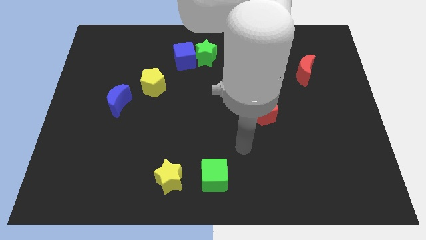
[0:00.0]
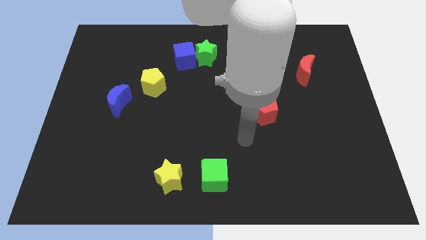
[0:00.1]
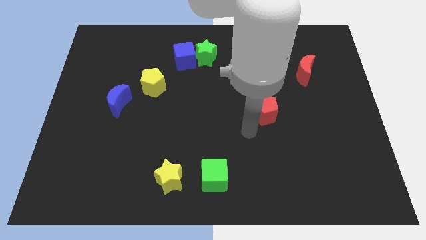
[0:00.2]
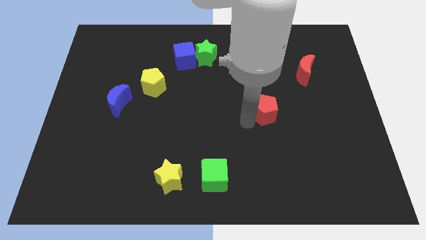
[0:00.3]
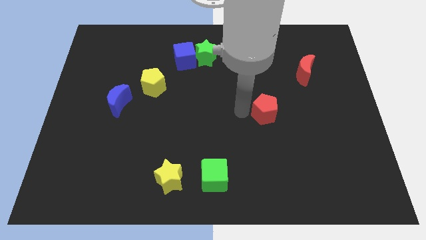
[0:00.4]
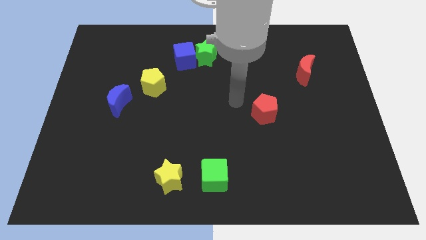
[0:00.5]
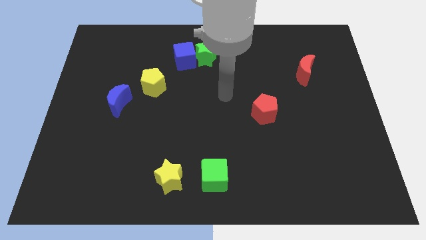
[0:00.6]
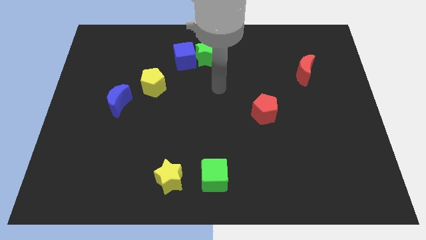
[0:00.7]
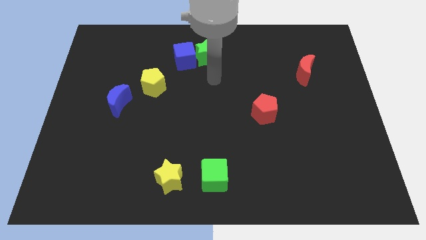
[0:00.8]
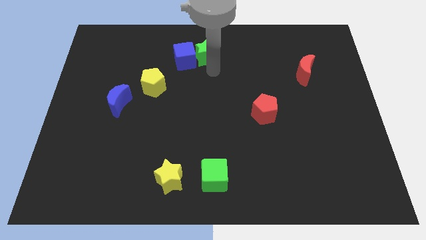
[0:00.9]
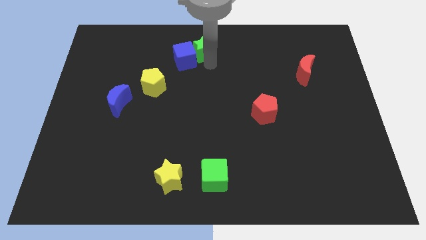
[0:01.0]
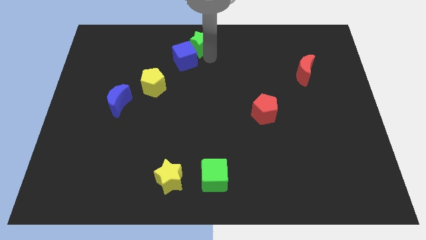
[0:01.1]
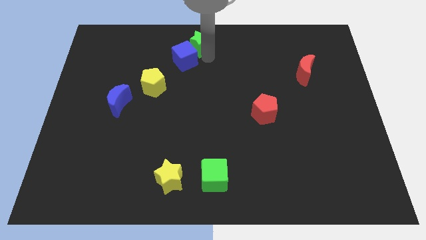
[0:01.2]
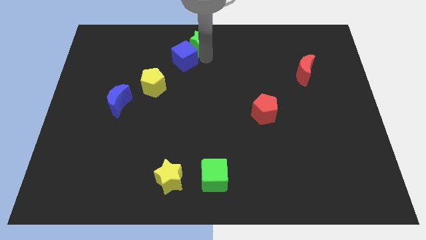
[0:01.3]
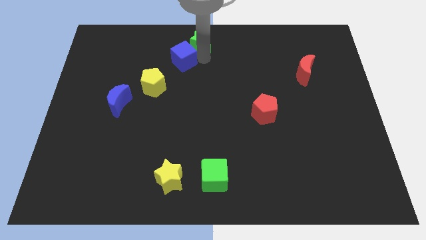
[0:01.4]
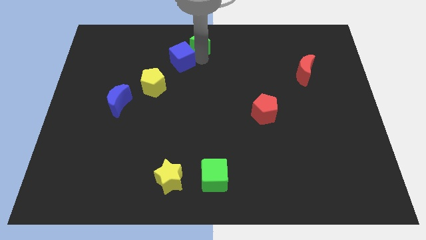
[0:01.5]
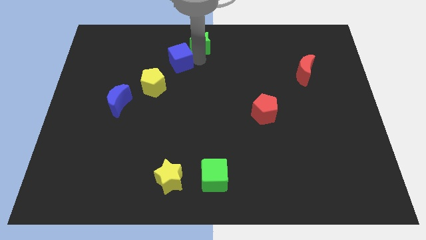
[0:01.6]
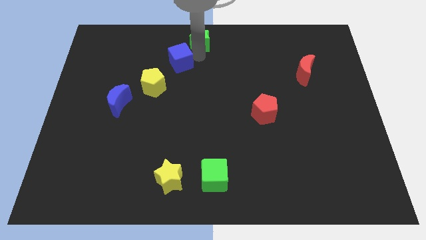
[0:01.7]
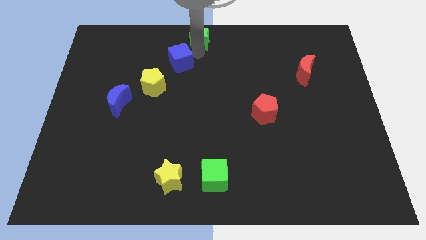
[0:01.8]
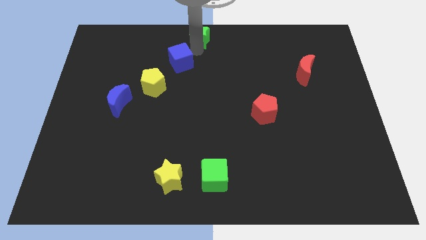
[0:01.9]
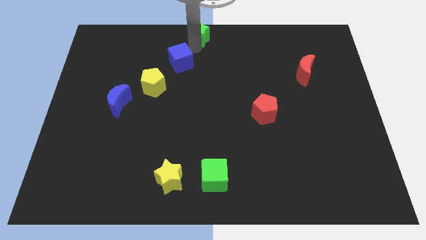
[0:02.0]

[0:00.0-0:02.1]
separate the blue cube from the green star

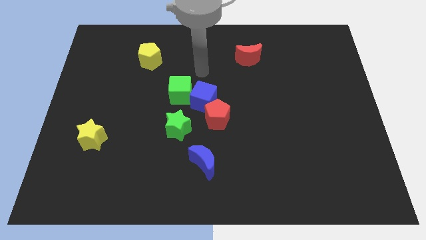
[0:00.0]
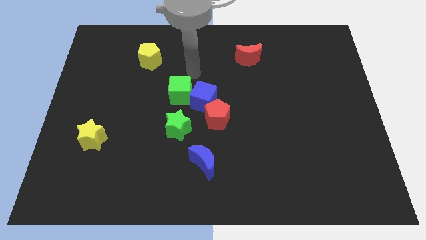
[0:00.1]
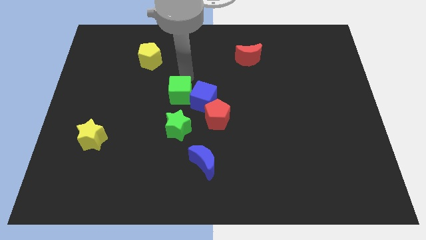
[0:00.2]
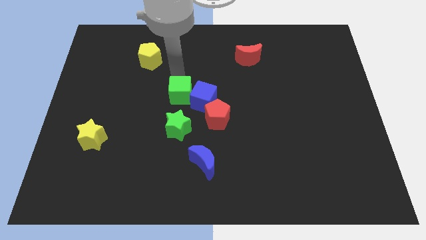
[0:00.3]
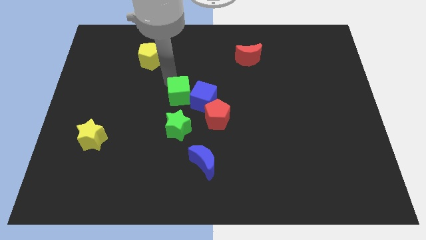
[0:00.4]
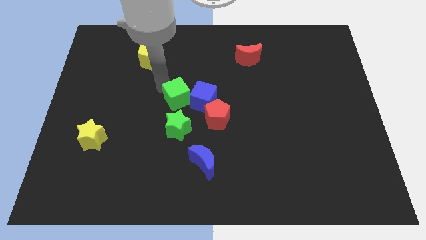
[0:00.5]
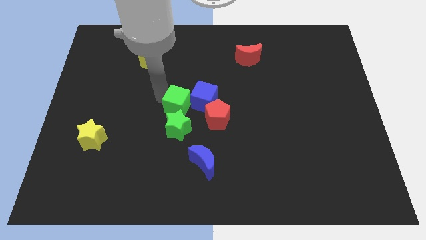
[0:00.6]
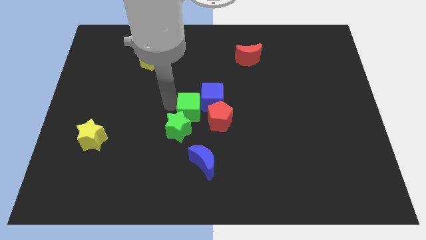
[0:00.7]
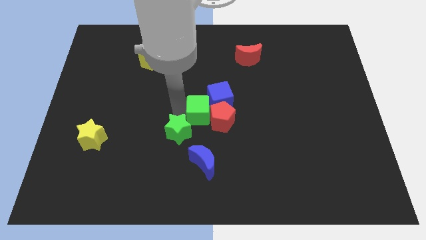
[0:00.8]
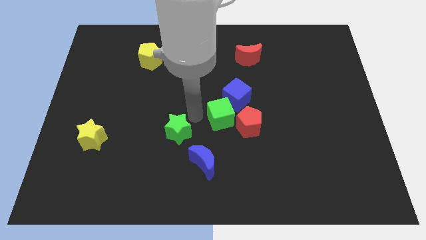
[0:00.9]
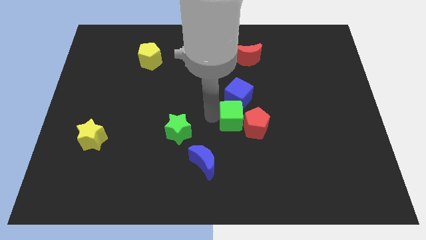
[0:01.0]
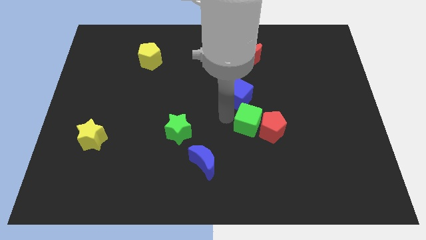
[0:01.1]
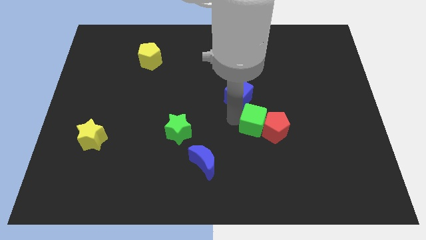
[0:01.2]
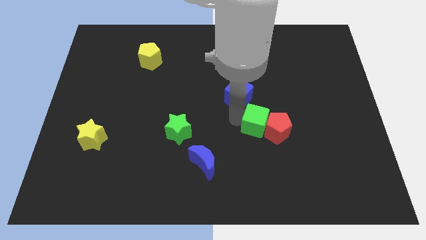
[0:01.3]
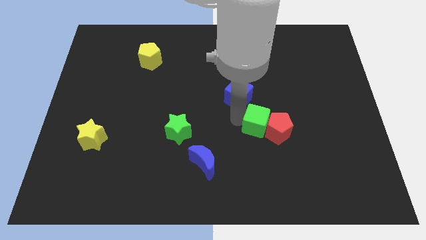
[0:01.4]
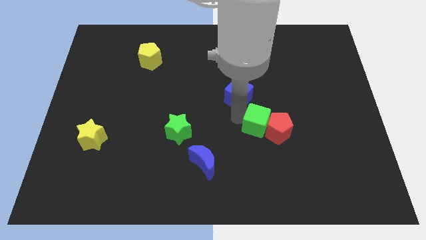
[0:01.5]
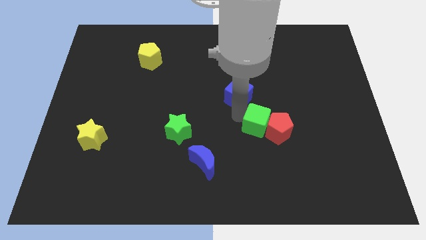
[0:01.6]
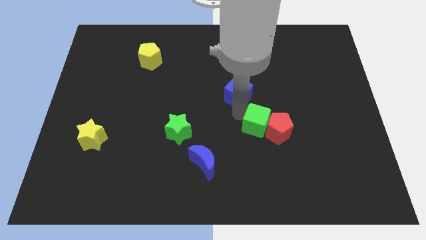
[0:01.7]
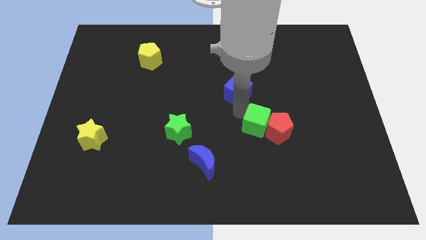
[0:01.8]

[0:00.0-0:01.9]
move the blue cube away from the green cube, red pentagon, and green star

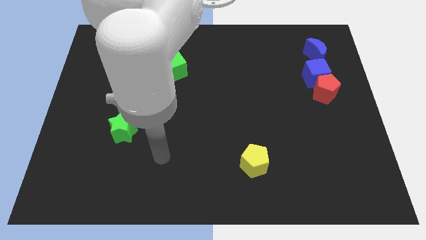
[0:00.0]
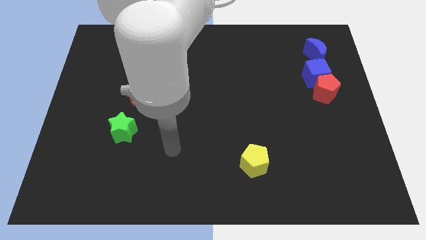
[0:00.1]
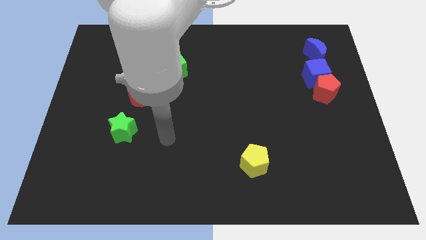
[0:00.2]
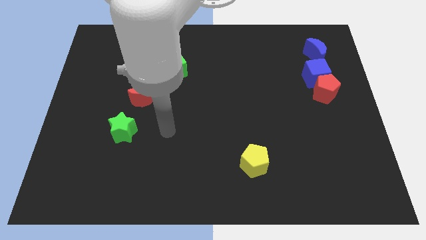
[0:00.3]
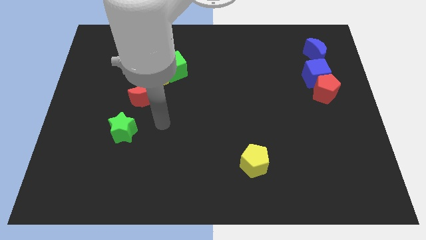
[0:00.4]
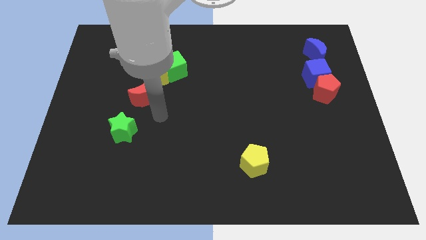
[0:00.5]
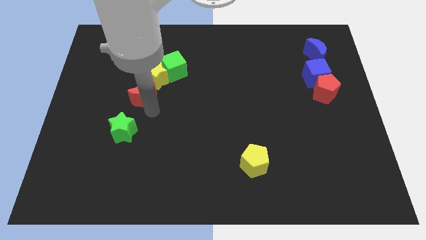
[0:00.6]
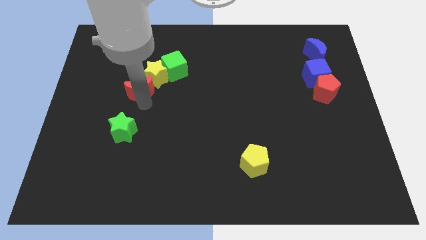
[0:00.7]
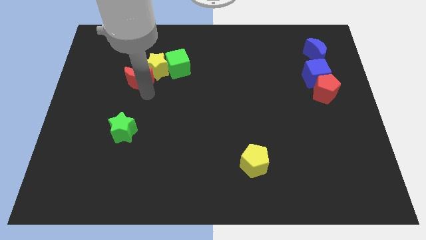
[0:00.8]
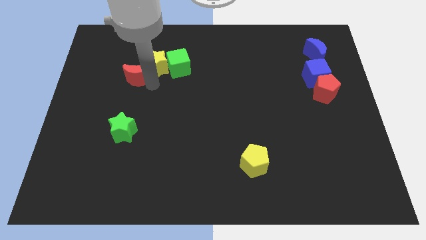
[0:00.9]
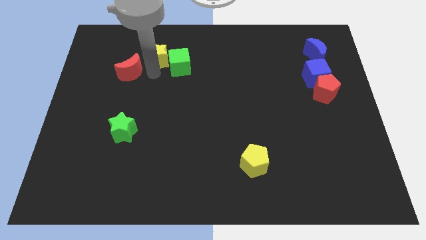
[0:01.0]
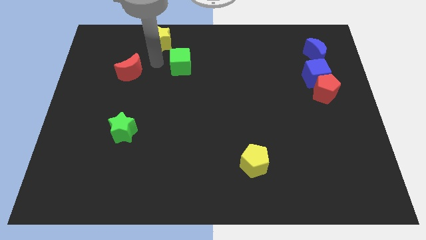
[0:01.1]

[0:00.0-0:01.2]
pull the green cube apart from the yellow star

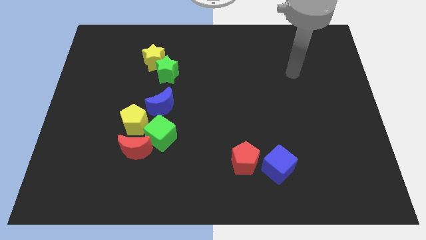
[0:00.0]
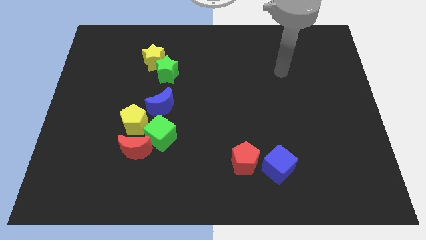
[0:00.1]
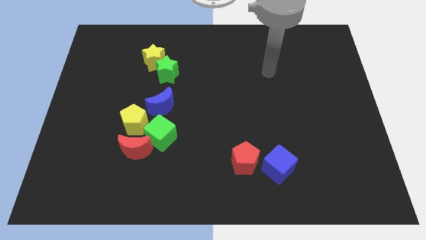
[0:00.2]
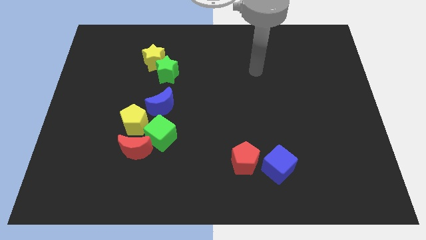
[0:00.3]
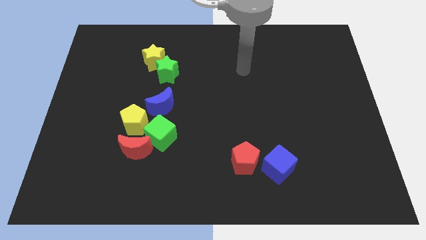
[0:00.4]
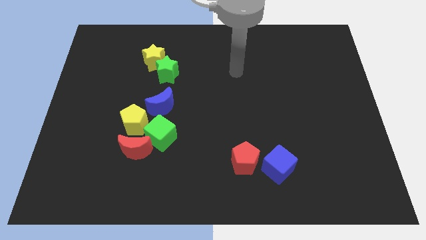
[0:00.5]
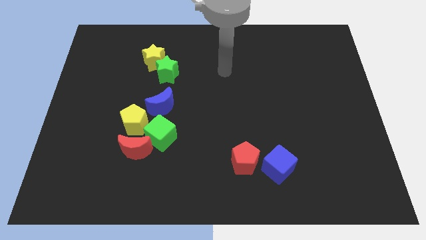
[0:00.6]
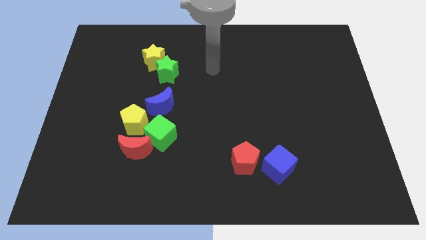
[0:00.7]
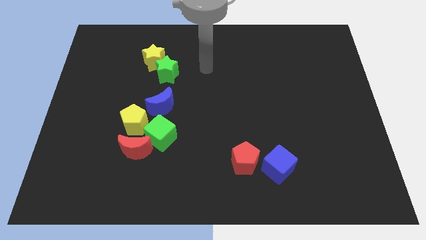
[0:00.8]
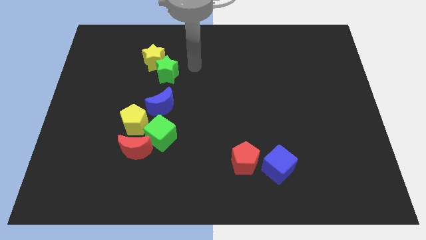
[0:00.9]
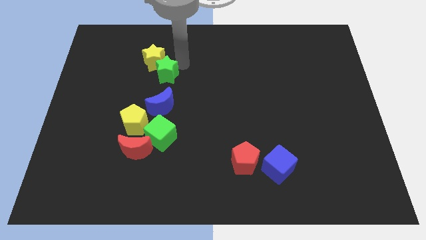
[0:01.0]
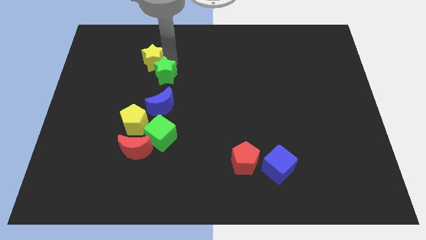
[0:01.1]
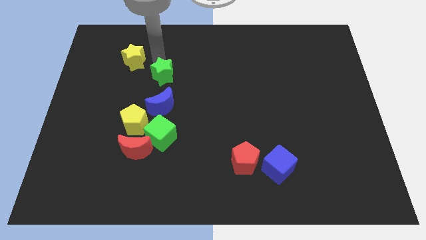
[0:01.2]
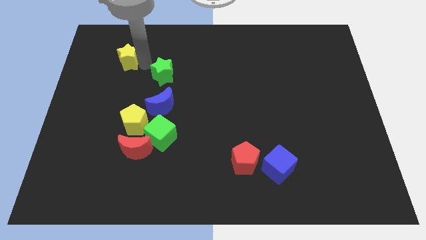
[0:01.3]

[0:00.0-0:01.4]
move the green star away from the yellow star

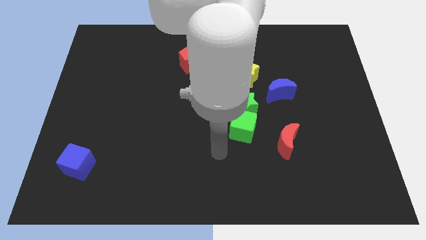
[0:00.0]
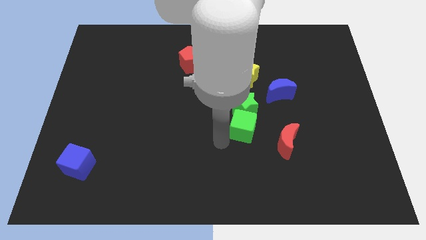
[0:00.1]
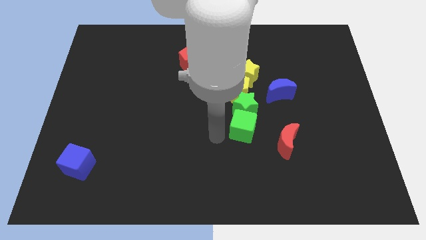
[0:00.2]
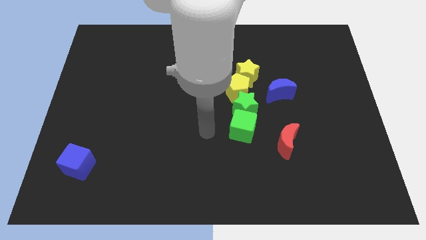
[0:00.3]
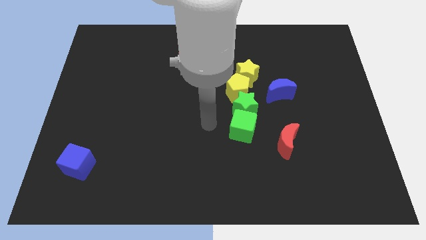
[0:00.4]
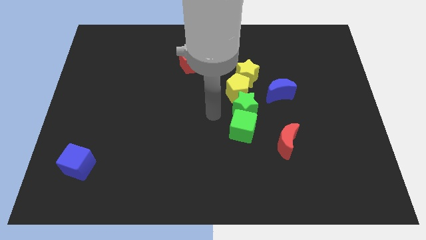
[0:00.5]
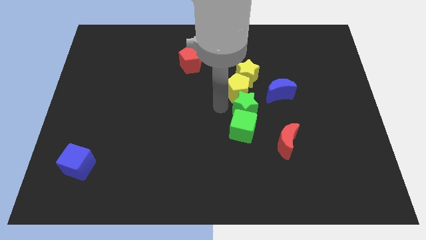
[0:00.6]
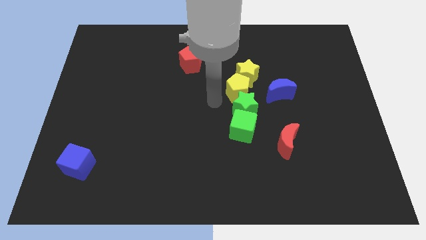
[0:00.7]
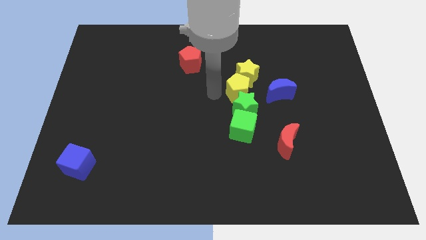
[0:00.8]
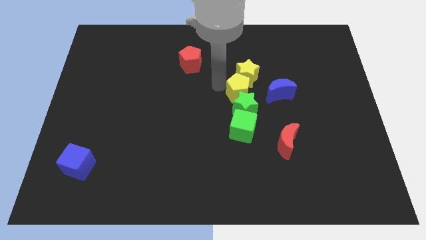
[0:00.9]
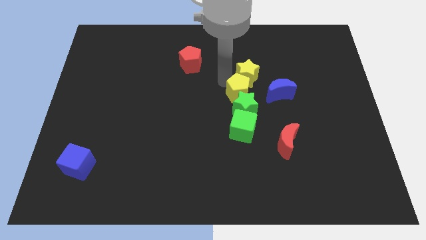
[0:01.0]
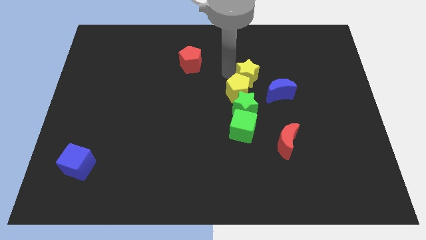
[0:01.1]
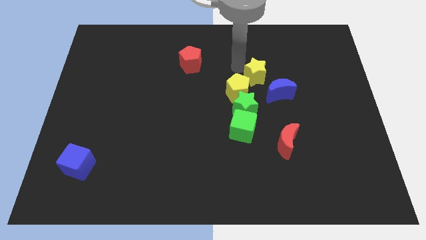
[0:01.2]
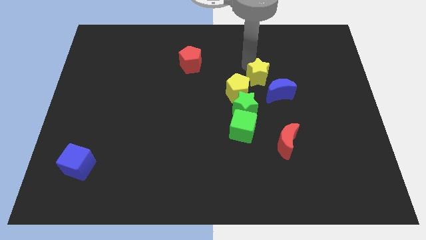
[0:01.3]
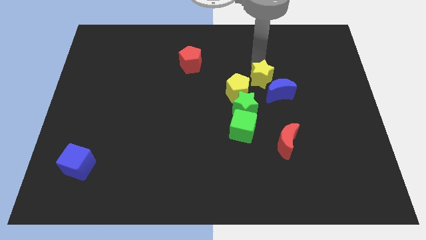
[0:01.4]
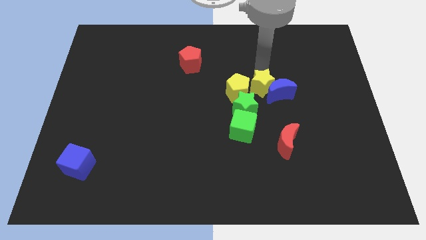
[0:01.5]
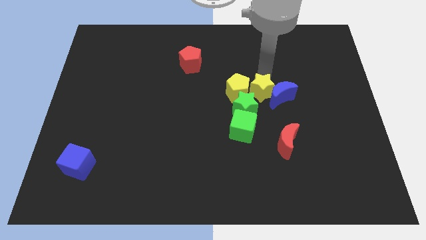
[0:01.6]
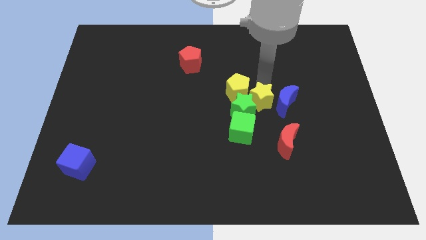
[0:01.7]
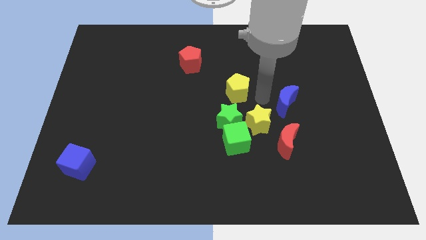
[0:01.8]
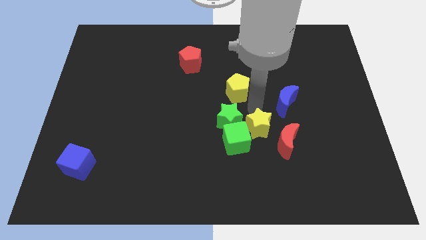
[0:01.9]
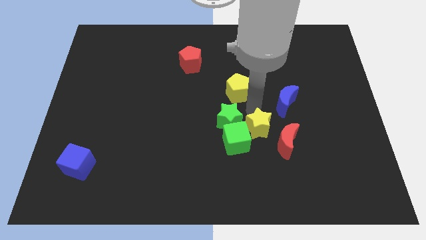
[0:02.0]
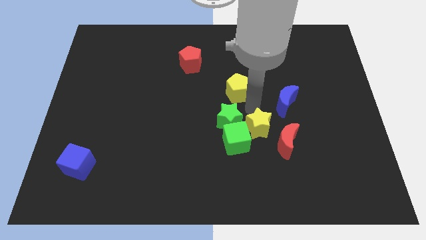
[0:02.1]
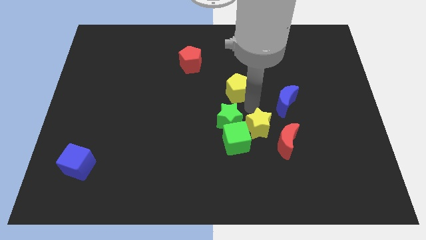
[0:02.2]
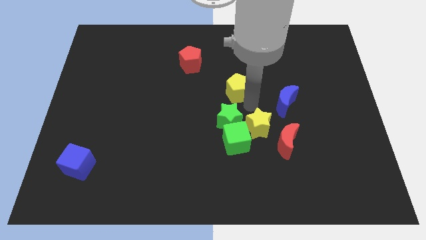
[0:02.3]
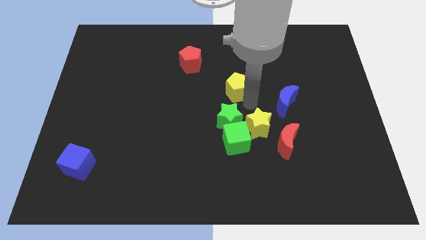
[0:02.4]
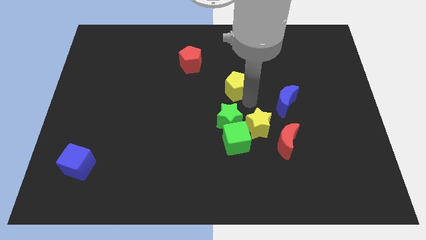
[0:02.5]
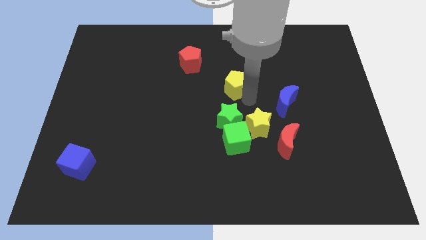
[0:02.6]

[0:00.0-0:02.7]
pull the yellow pentagon apart from the clump
